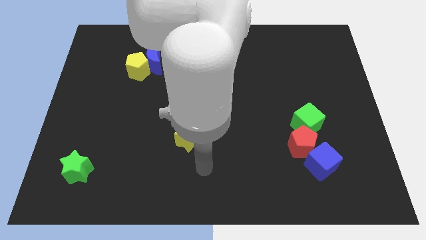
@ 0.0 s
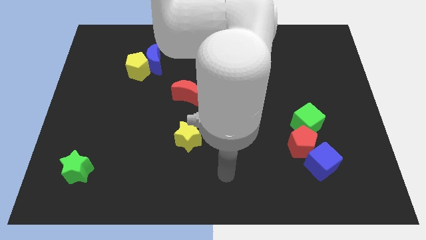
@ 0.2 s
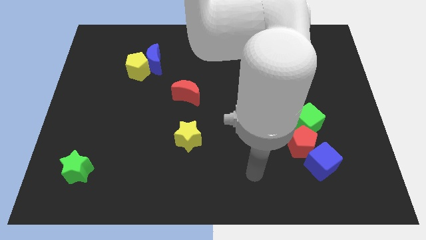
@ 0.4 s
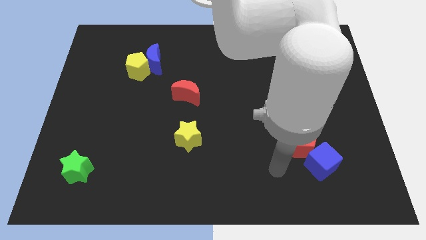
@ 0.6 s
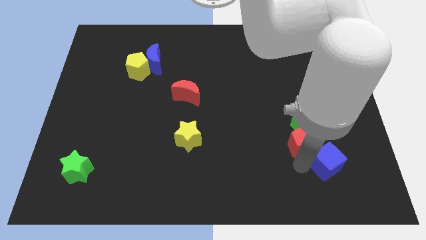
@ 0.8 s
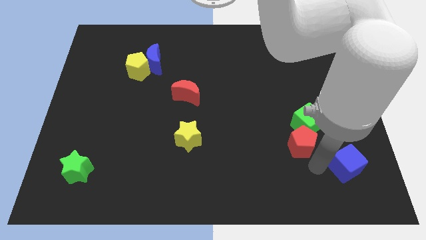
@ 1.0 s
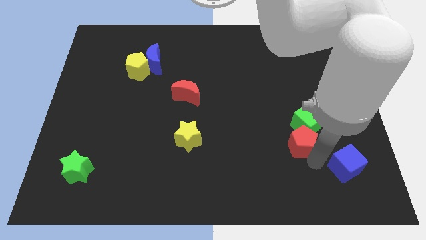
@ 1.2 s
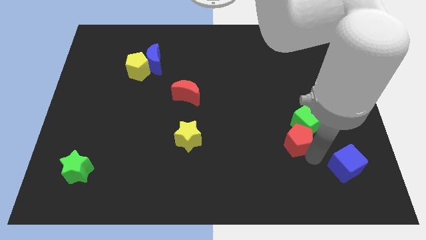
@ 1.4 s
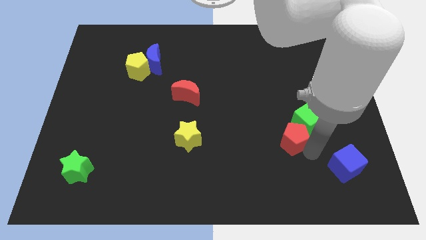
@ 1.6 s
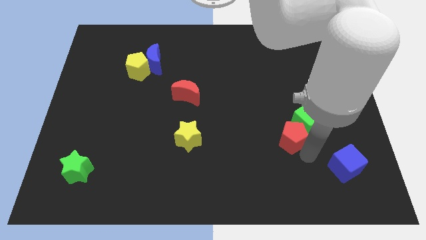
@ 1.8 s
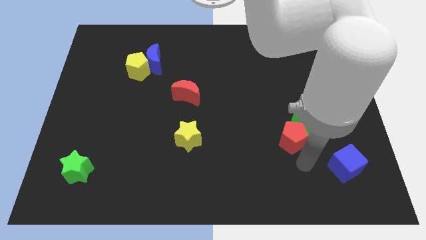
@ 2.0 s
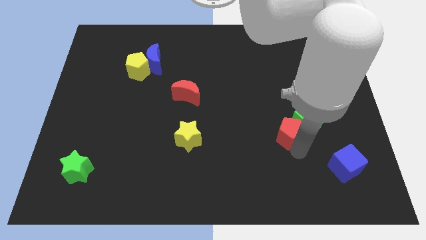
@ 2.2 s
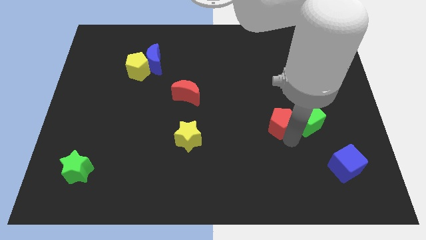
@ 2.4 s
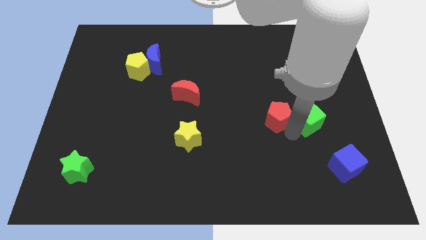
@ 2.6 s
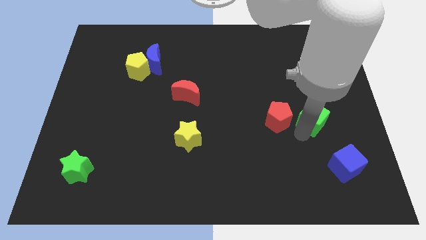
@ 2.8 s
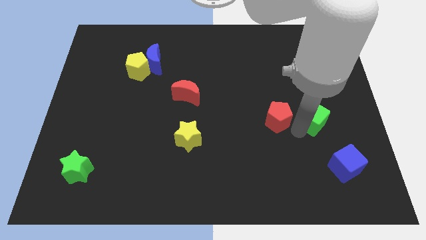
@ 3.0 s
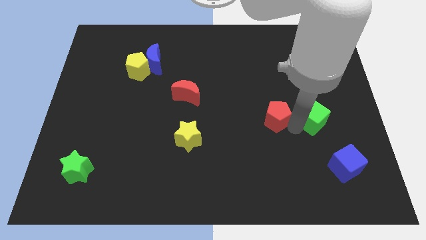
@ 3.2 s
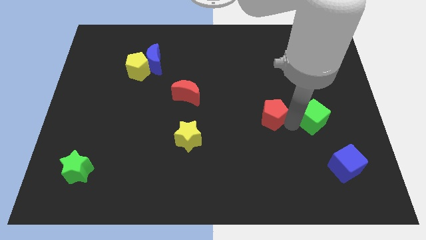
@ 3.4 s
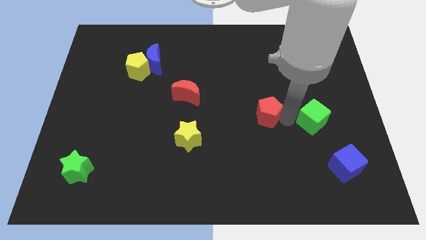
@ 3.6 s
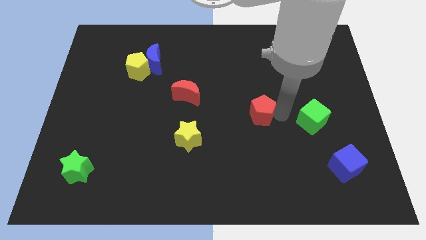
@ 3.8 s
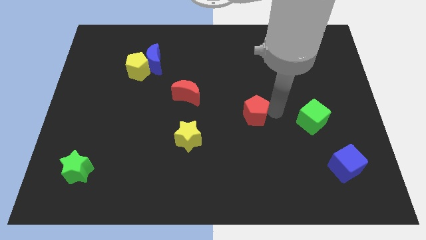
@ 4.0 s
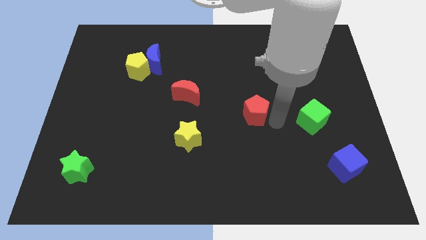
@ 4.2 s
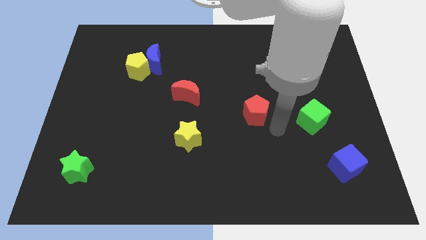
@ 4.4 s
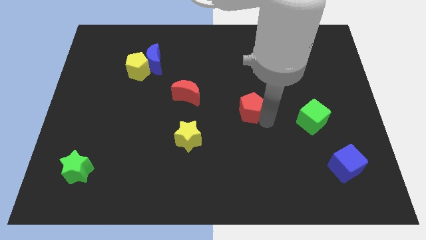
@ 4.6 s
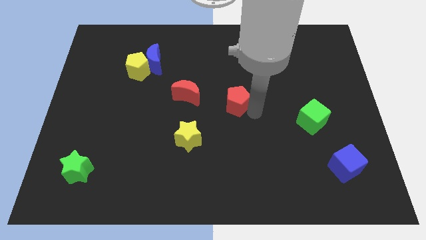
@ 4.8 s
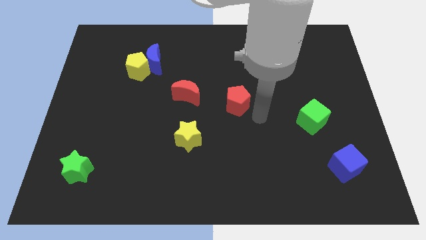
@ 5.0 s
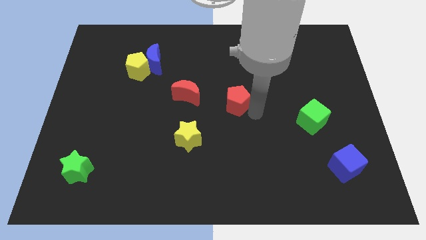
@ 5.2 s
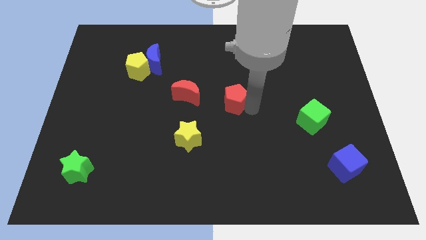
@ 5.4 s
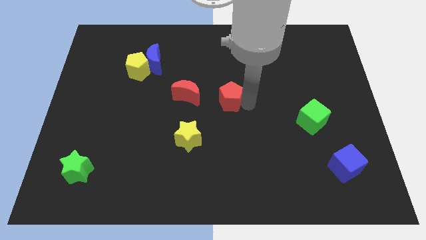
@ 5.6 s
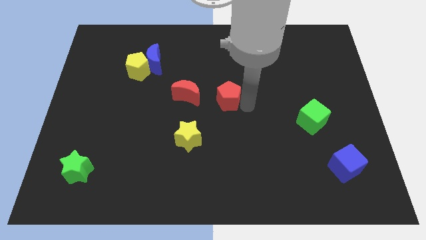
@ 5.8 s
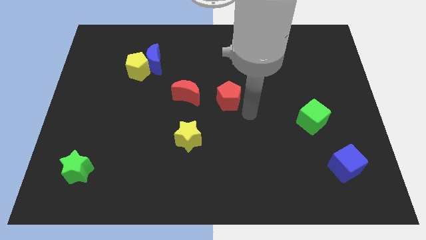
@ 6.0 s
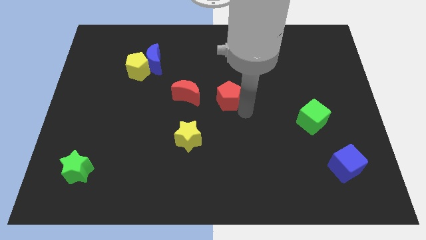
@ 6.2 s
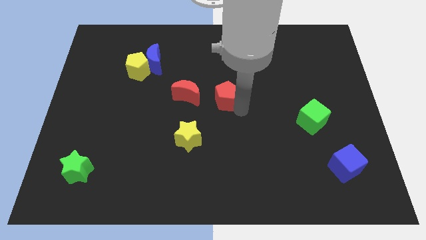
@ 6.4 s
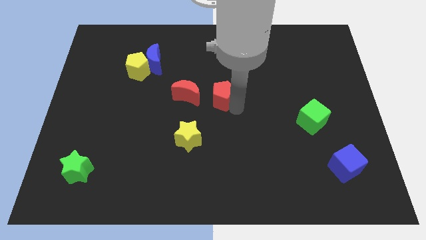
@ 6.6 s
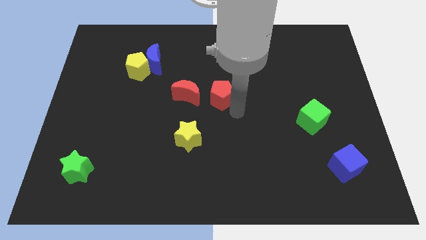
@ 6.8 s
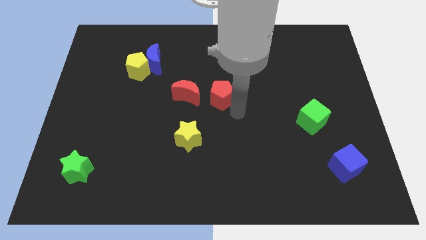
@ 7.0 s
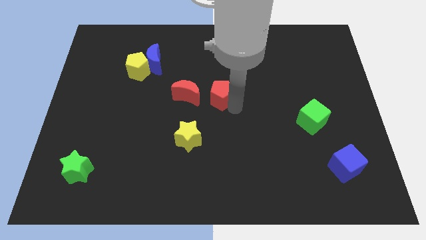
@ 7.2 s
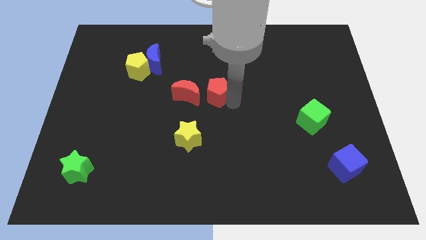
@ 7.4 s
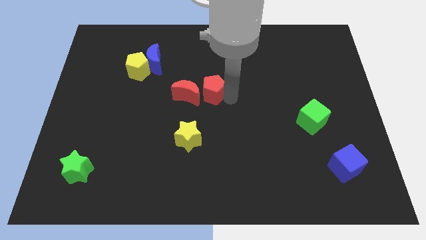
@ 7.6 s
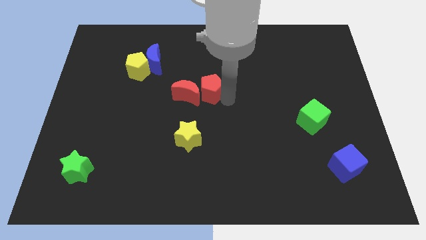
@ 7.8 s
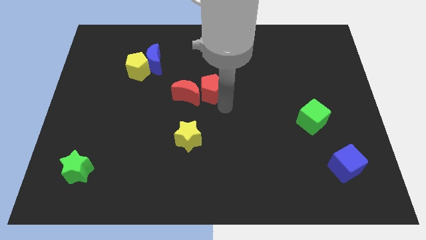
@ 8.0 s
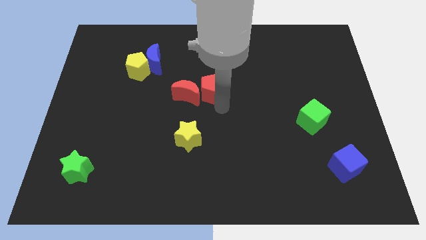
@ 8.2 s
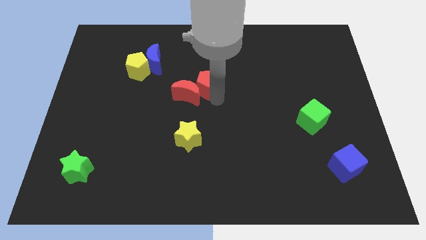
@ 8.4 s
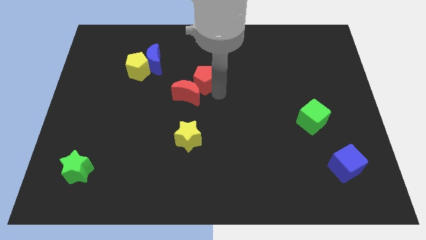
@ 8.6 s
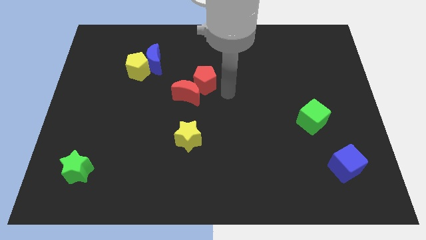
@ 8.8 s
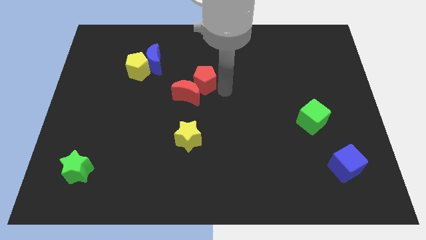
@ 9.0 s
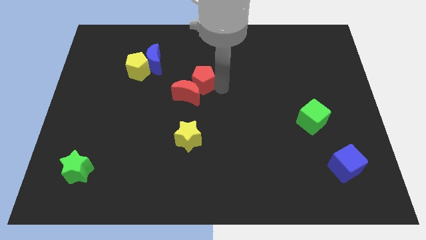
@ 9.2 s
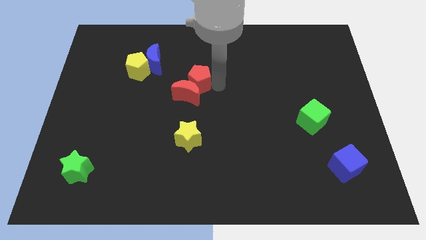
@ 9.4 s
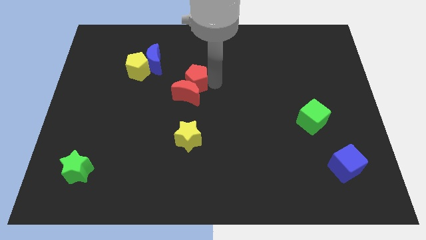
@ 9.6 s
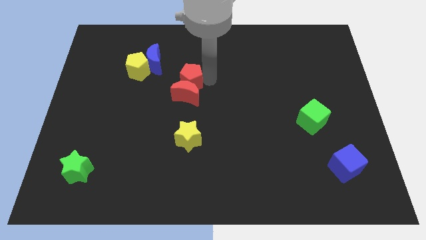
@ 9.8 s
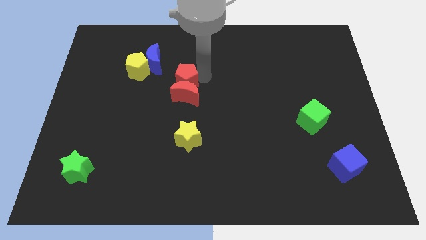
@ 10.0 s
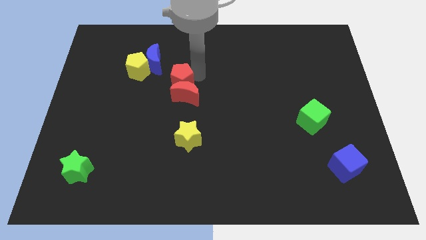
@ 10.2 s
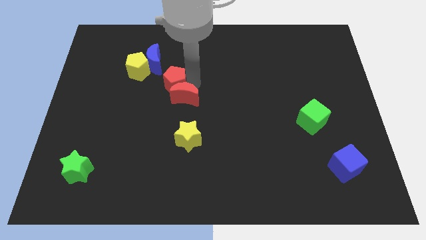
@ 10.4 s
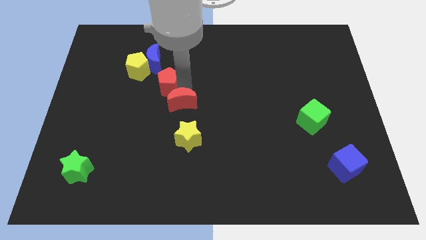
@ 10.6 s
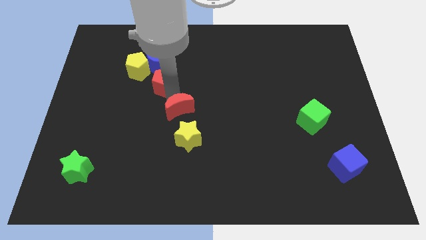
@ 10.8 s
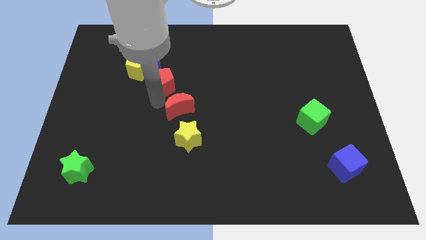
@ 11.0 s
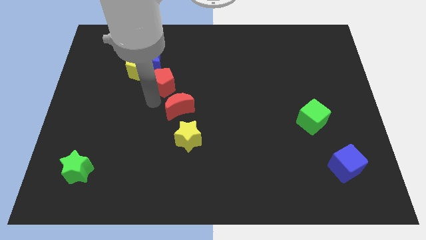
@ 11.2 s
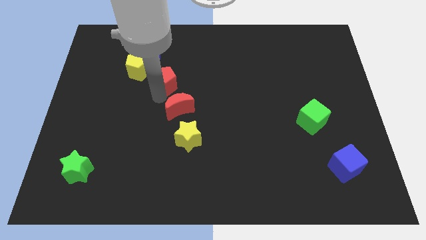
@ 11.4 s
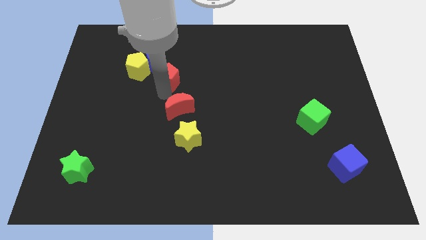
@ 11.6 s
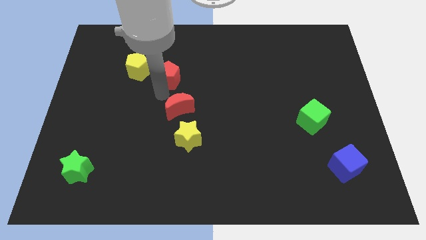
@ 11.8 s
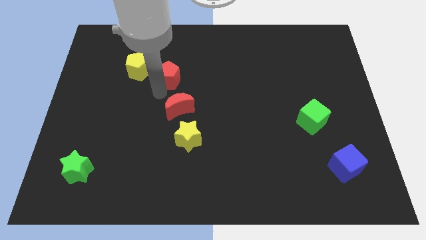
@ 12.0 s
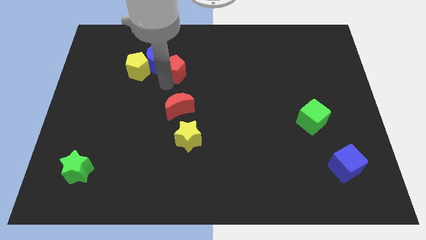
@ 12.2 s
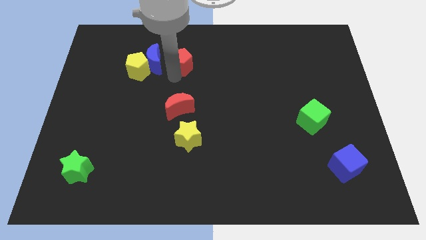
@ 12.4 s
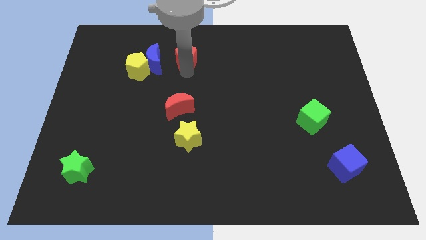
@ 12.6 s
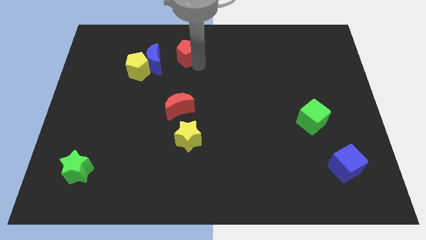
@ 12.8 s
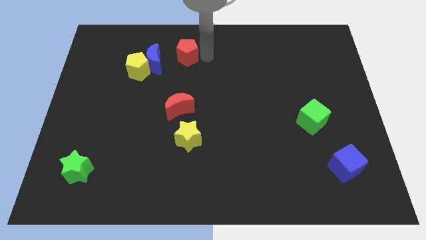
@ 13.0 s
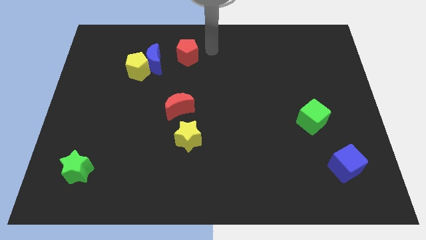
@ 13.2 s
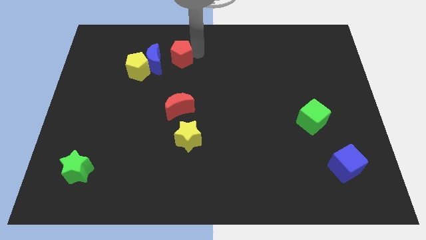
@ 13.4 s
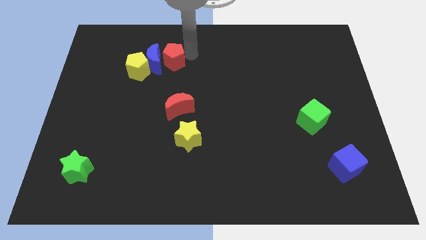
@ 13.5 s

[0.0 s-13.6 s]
put the red pentagon to the blue moon
